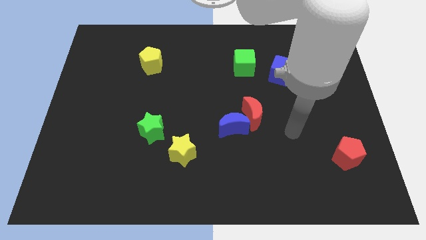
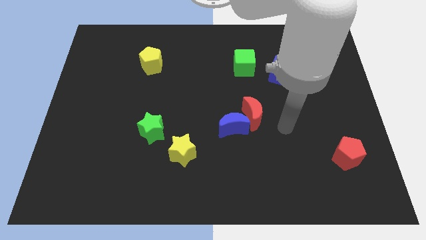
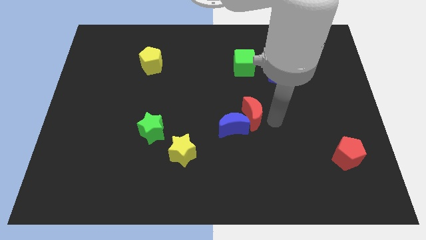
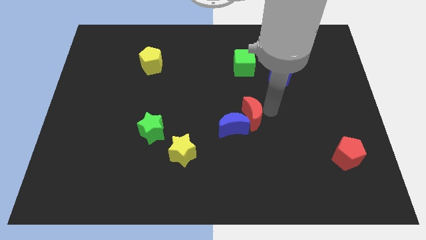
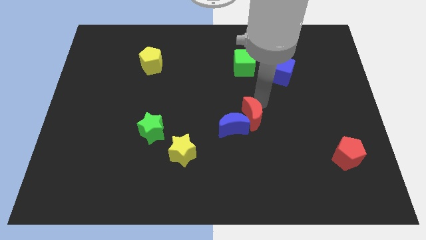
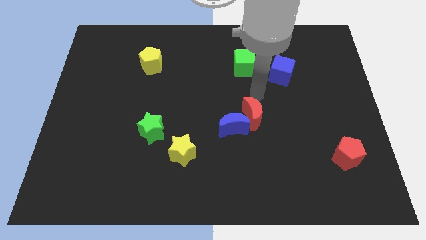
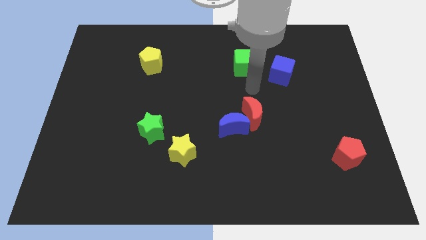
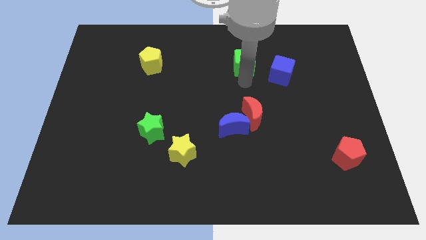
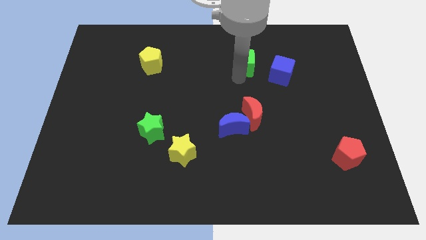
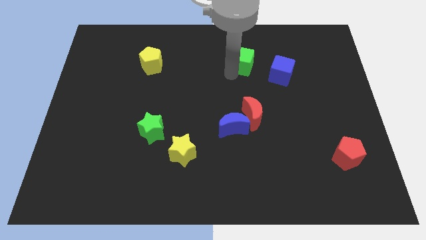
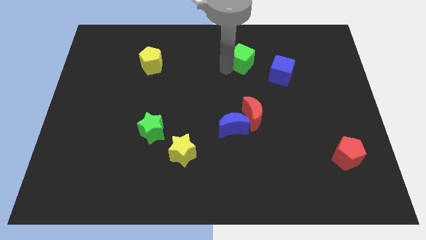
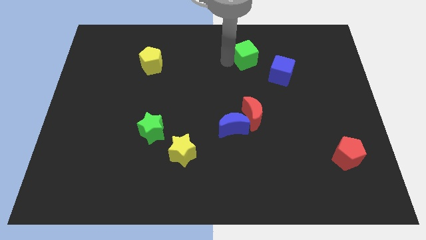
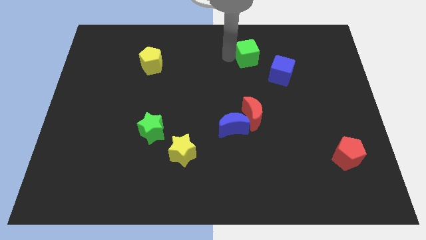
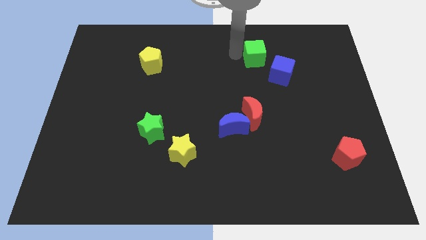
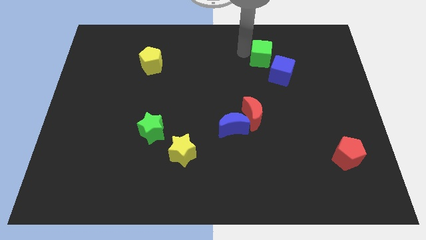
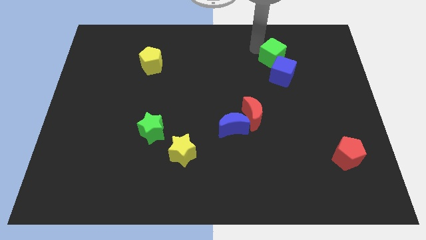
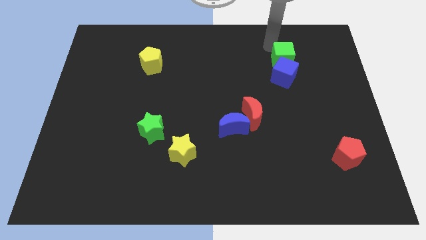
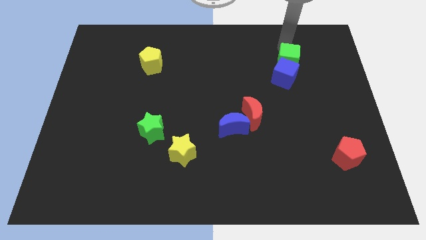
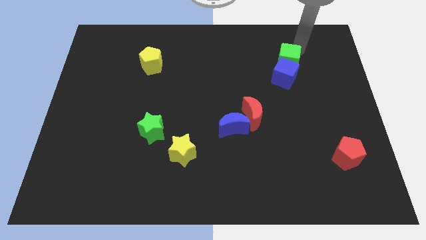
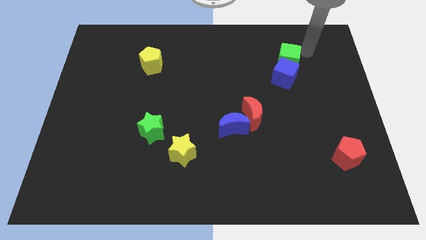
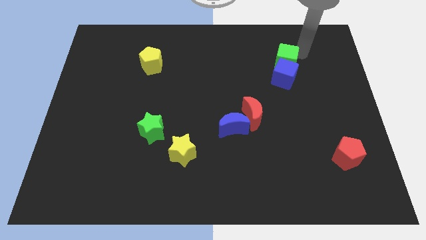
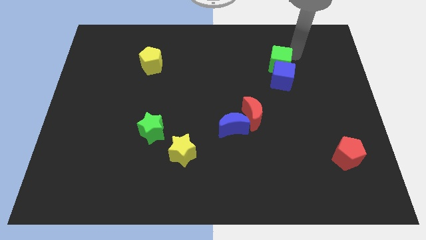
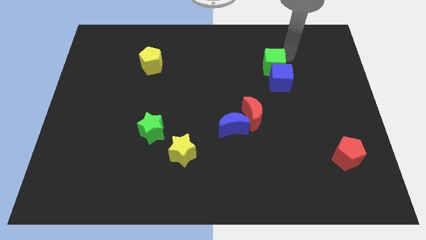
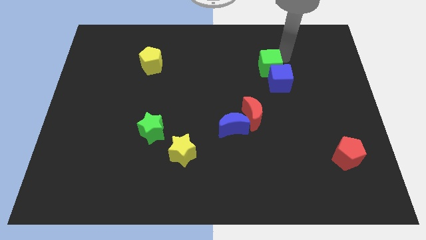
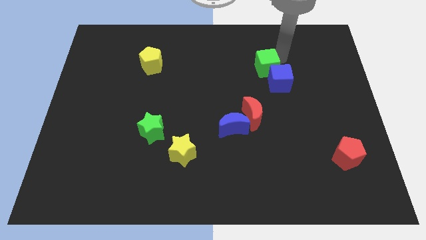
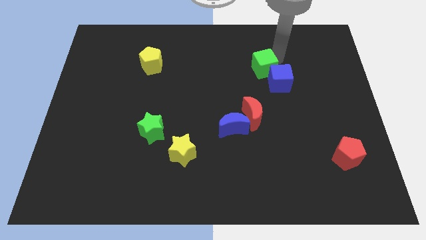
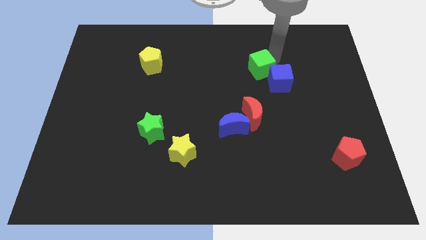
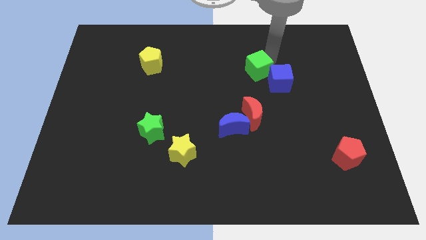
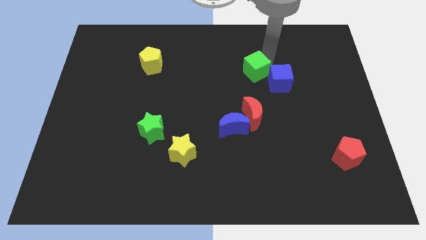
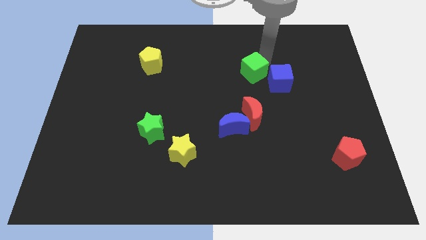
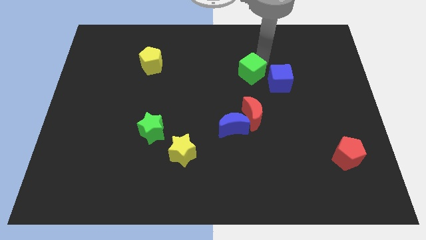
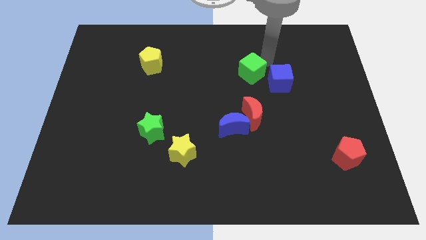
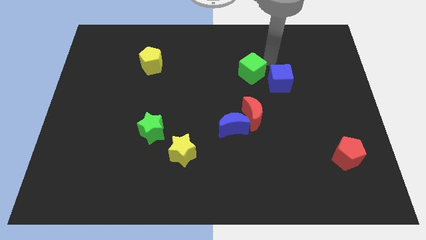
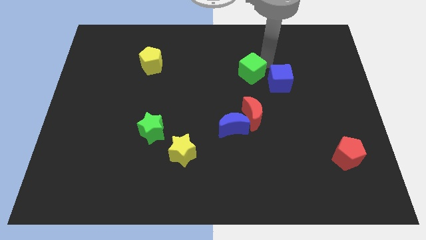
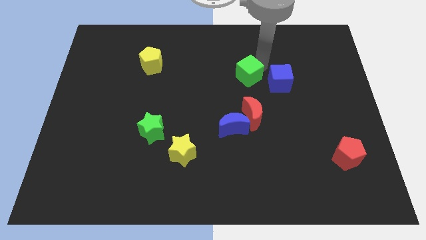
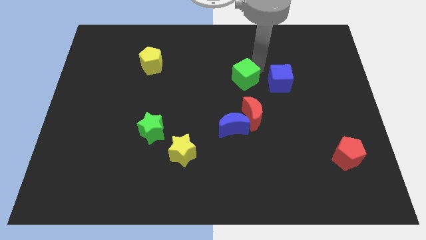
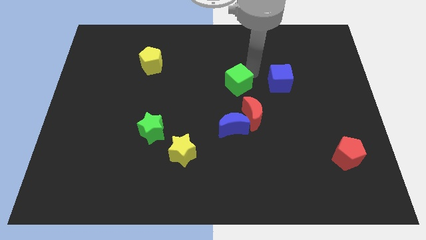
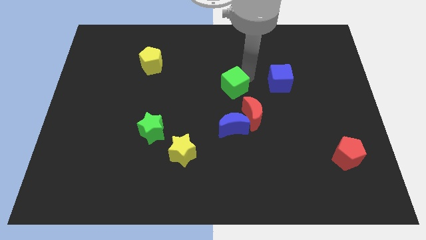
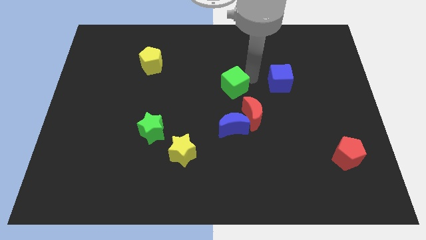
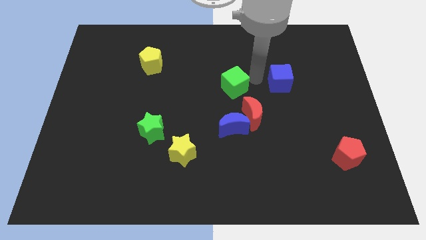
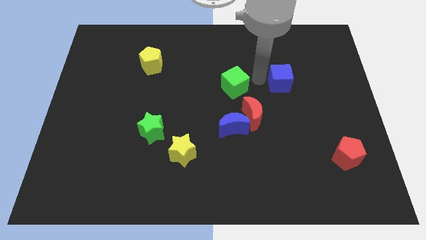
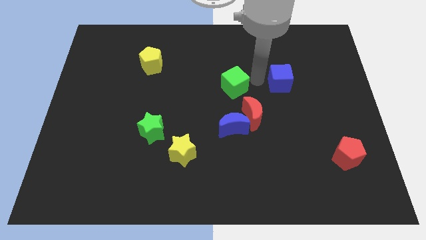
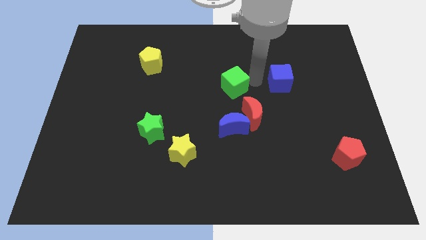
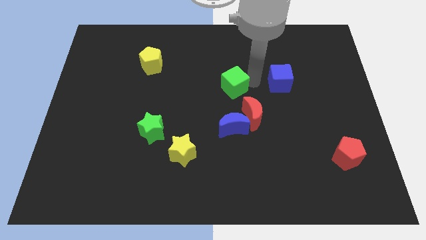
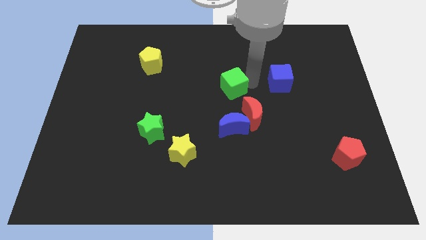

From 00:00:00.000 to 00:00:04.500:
move the green cube down and to the left slightly

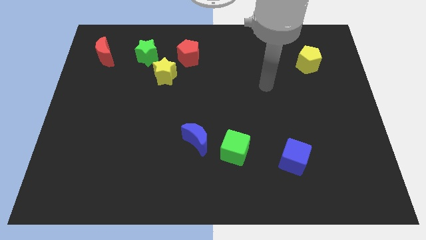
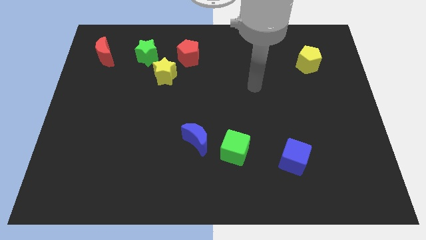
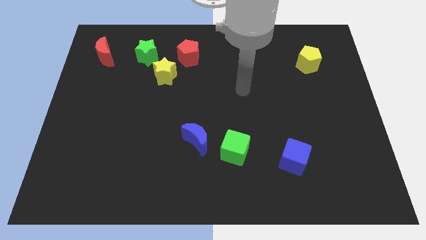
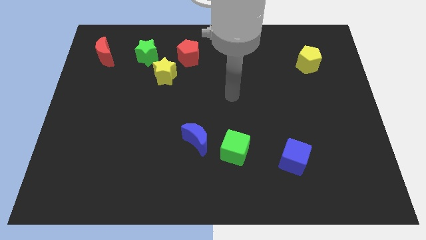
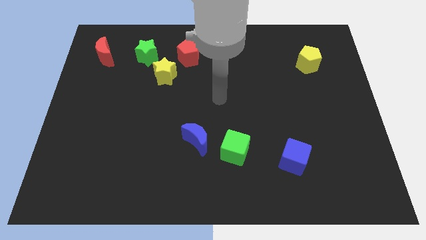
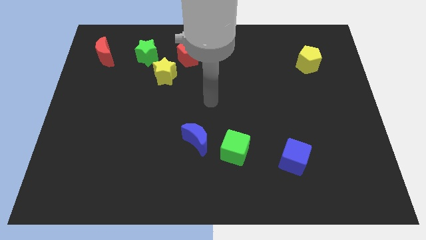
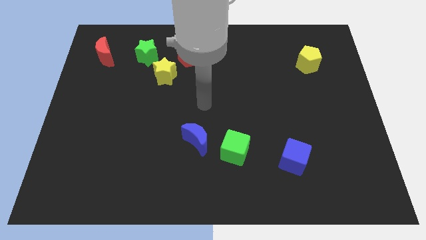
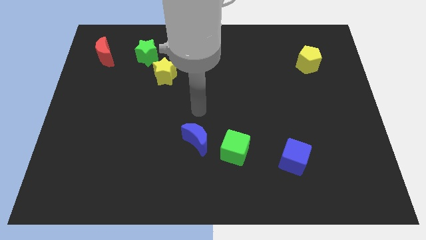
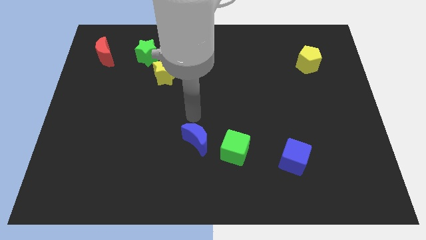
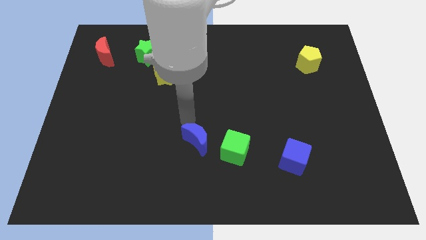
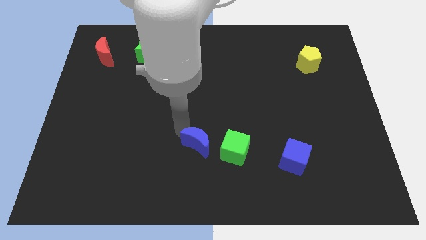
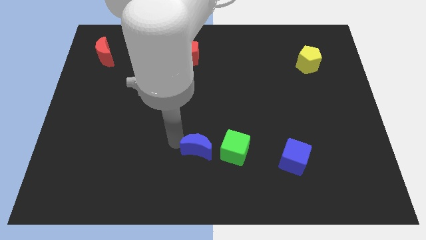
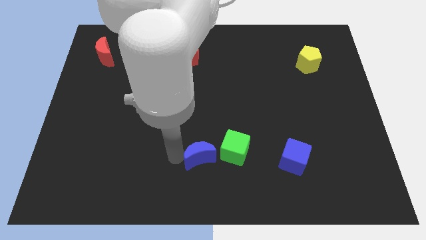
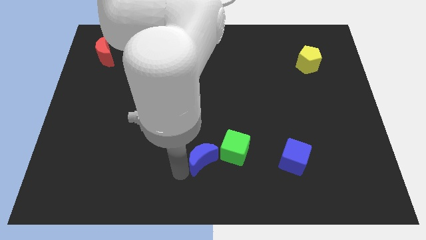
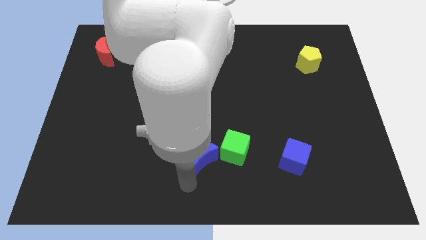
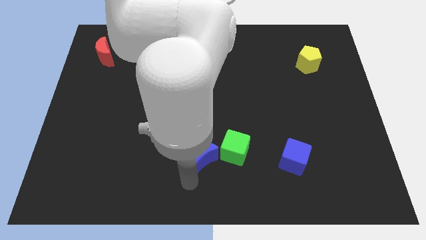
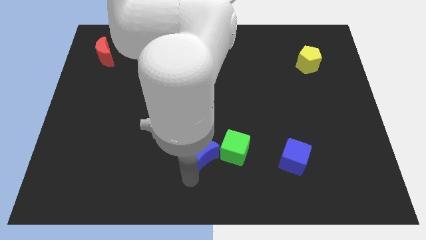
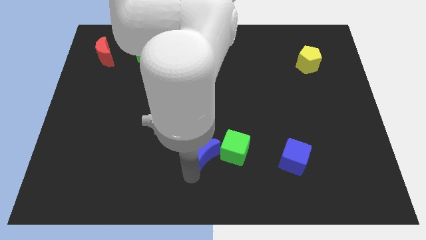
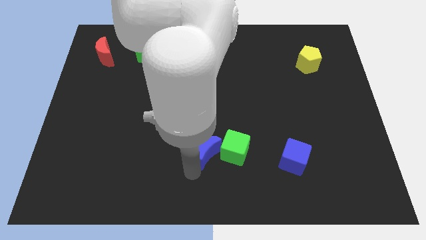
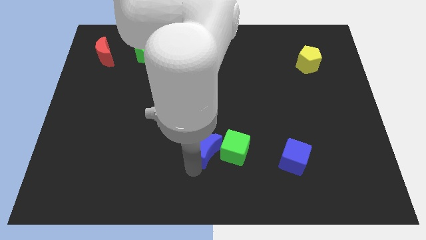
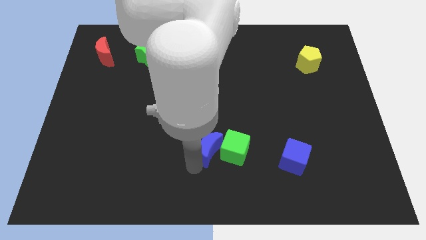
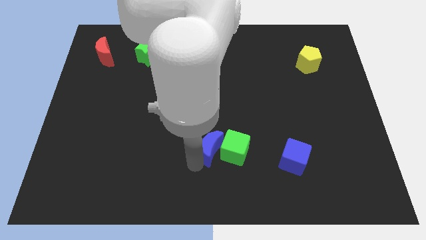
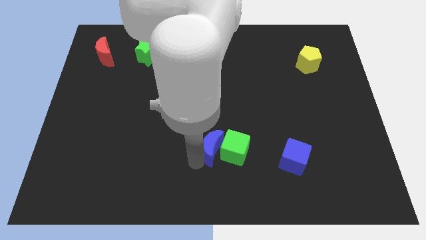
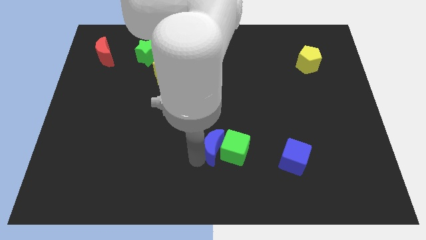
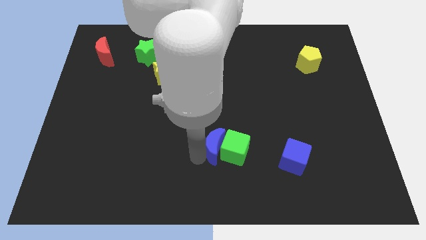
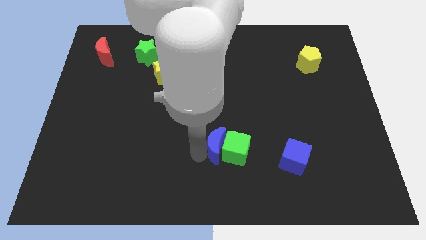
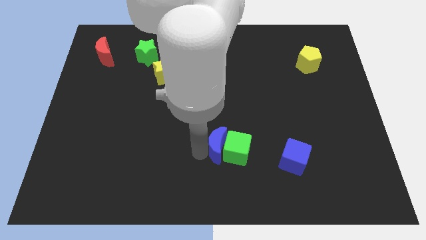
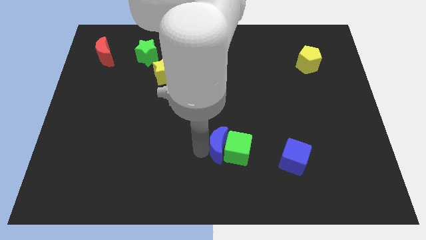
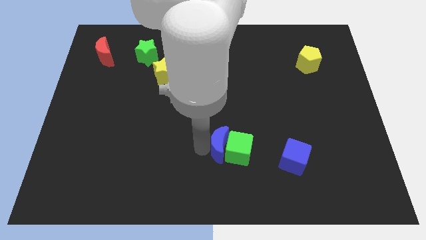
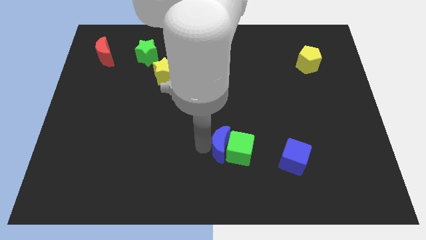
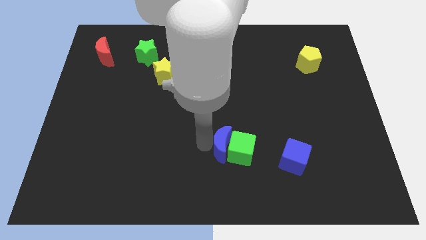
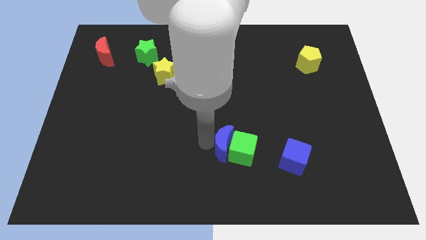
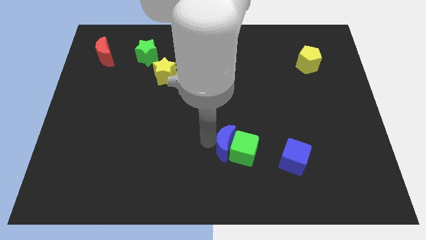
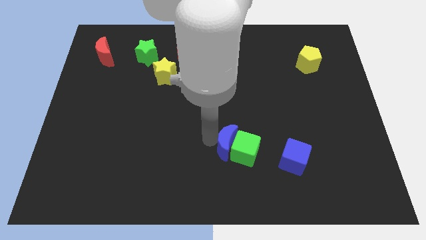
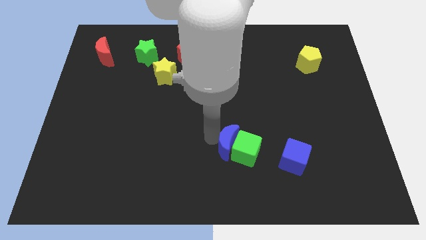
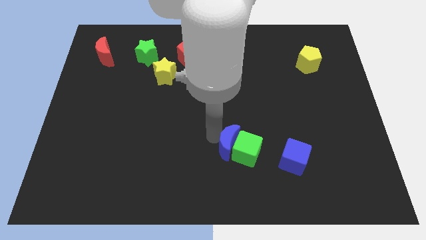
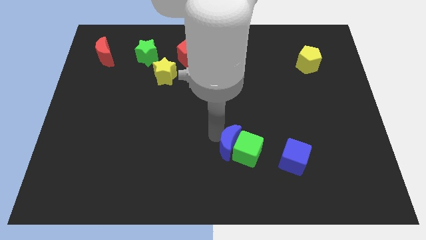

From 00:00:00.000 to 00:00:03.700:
slide the blue moon right a bit
